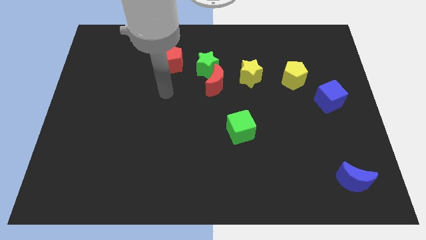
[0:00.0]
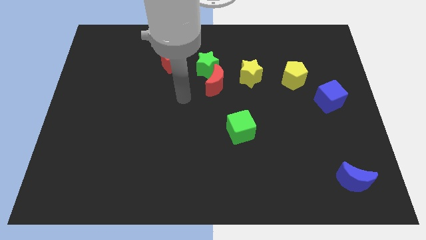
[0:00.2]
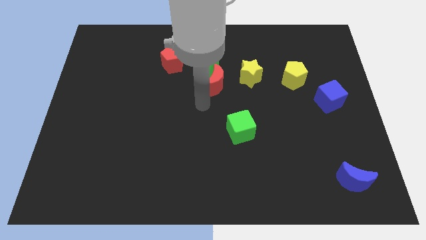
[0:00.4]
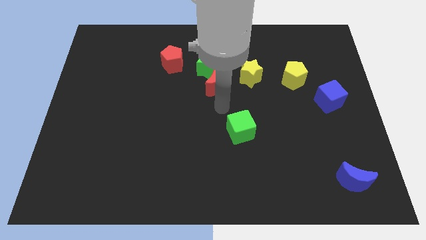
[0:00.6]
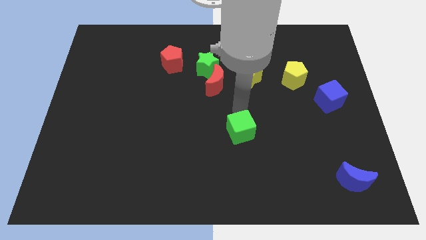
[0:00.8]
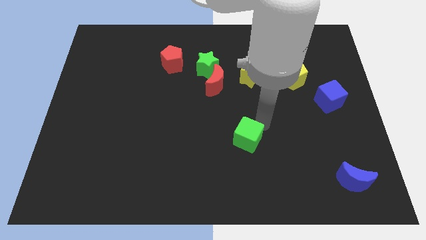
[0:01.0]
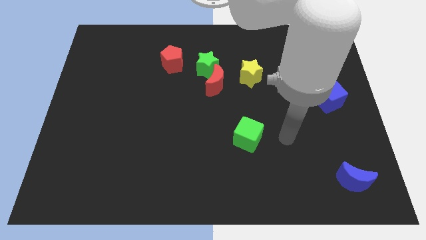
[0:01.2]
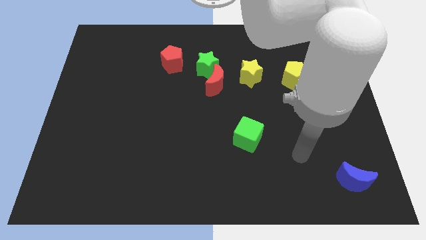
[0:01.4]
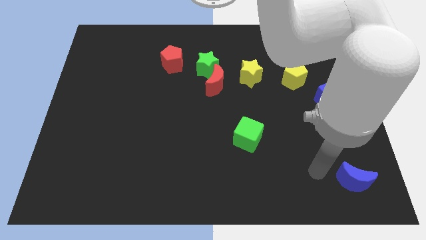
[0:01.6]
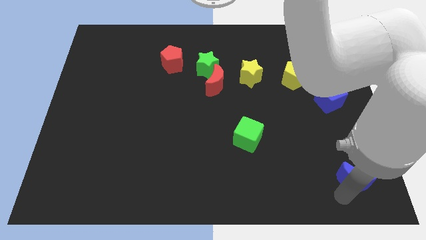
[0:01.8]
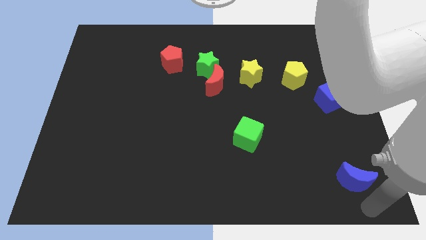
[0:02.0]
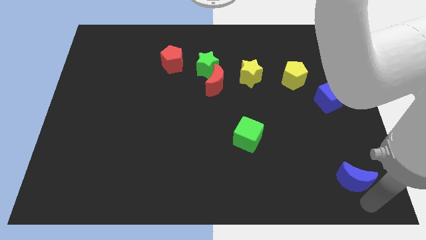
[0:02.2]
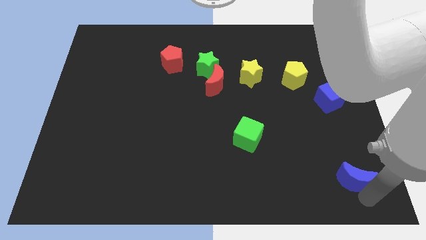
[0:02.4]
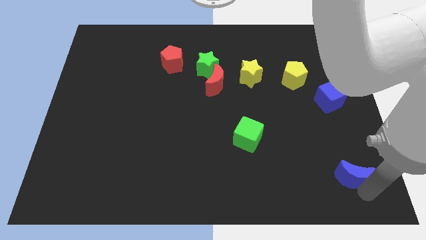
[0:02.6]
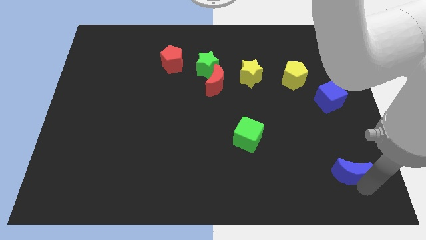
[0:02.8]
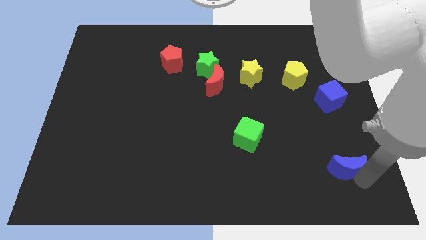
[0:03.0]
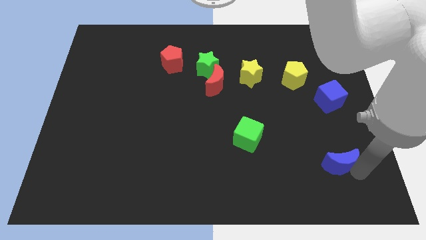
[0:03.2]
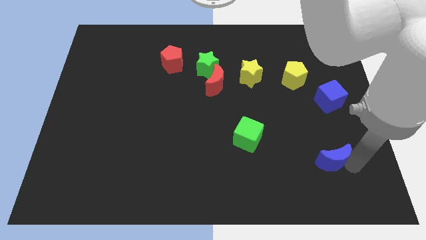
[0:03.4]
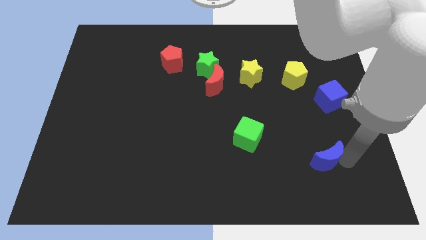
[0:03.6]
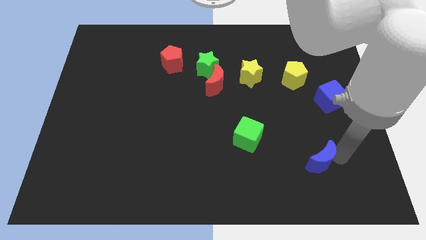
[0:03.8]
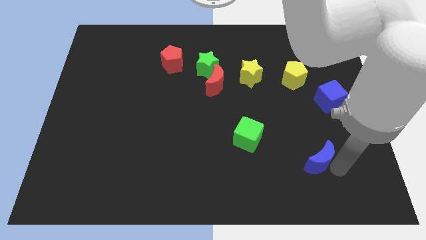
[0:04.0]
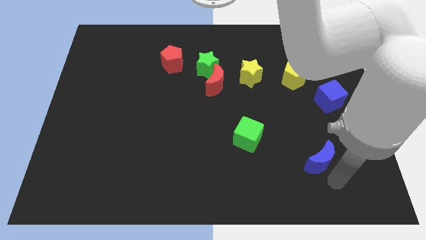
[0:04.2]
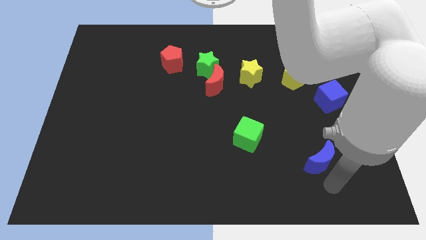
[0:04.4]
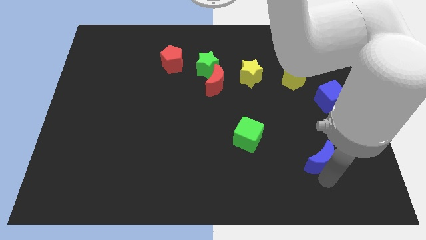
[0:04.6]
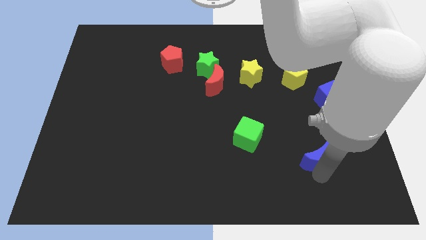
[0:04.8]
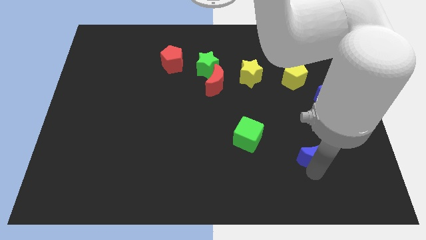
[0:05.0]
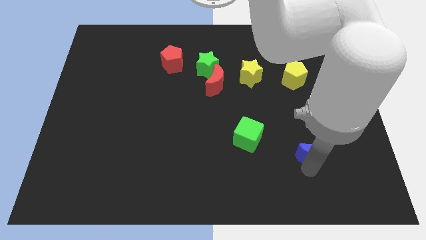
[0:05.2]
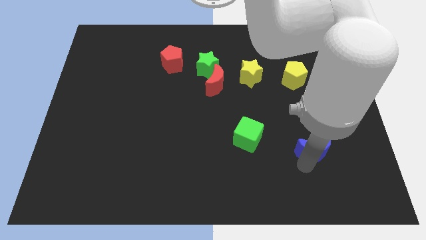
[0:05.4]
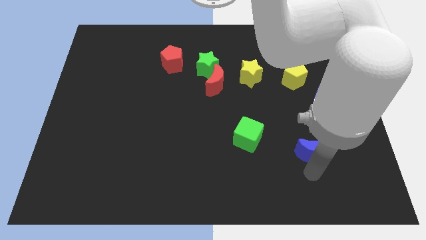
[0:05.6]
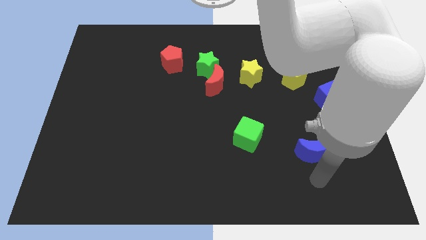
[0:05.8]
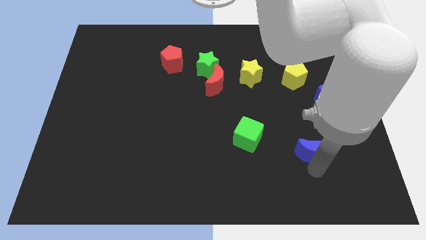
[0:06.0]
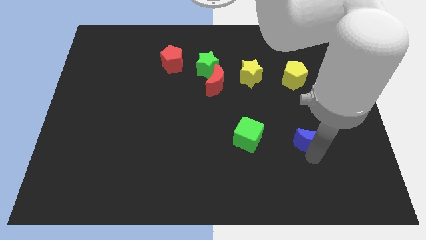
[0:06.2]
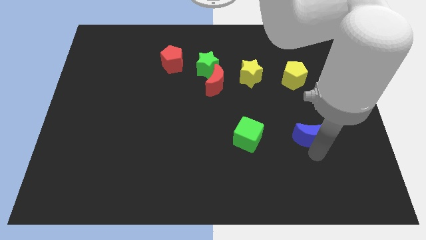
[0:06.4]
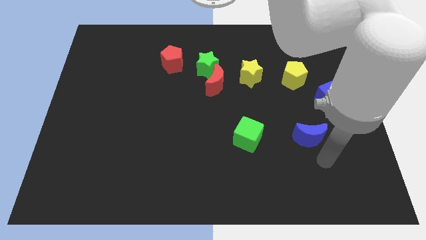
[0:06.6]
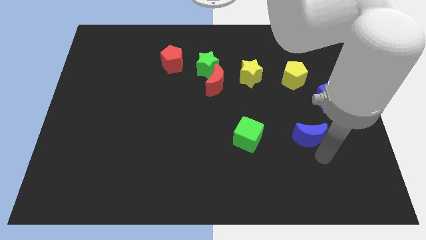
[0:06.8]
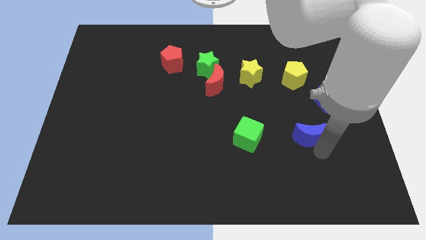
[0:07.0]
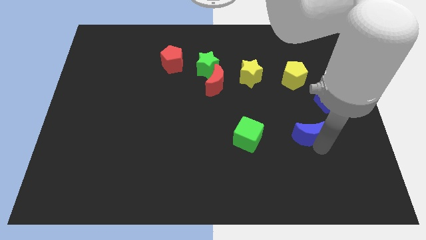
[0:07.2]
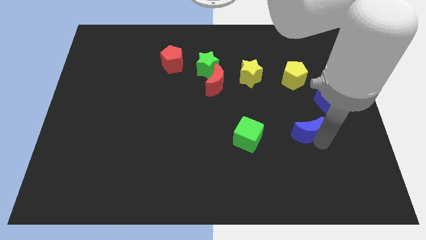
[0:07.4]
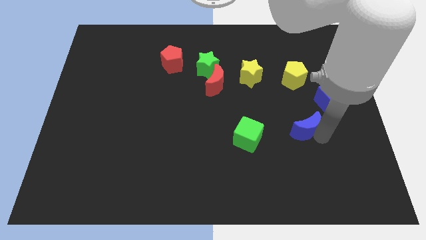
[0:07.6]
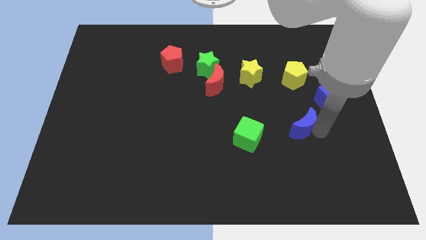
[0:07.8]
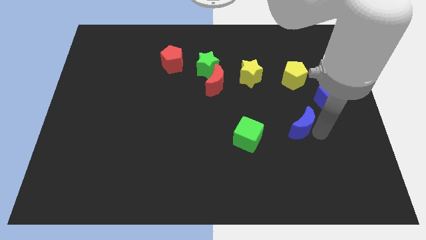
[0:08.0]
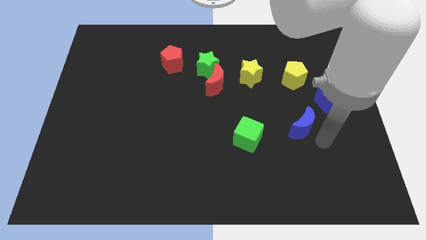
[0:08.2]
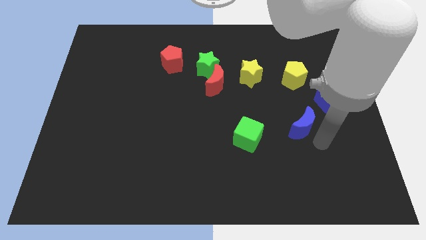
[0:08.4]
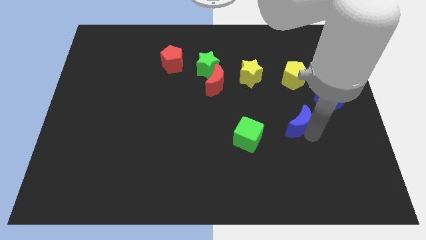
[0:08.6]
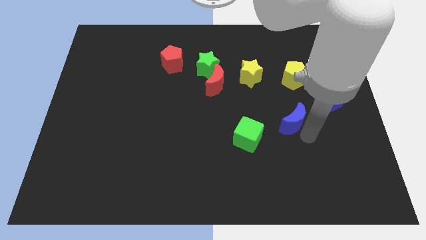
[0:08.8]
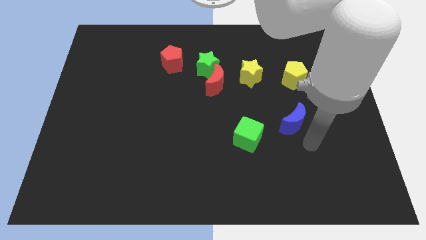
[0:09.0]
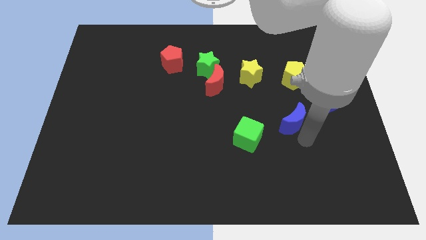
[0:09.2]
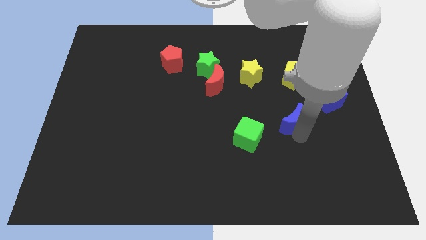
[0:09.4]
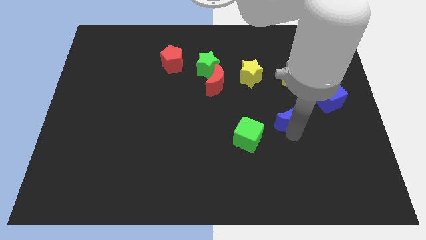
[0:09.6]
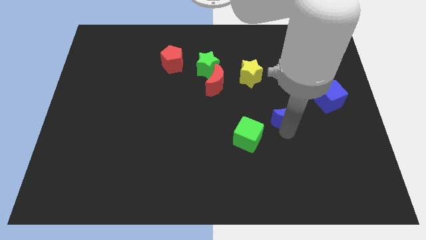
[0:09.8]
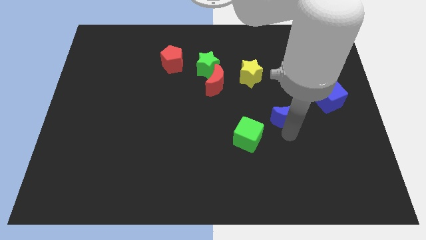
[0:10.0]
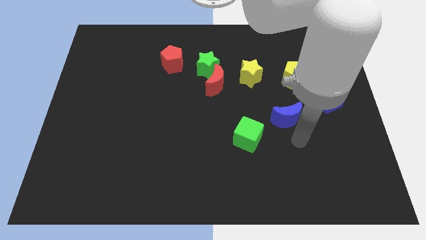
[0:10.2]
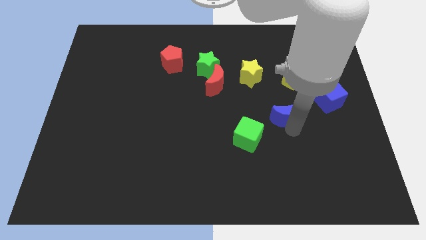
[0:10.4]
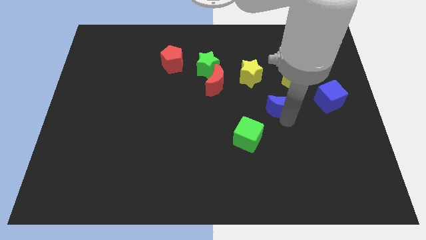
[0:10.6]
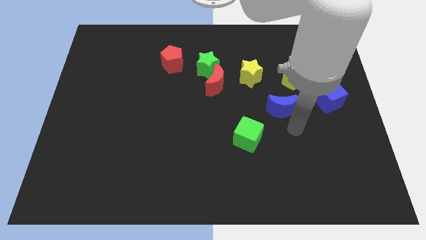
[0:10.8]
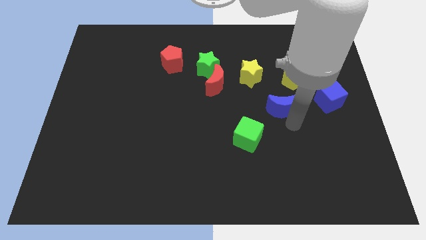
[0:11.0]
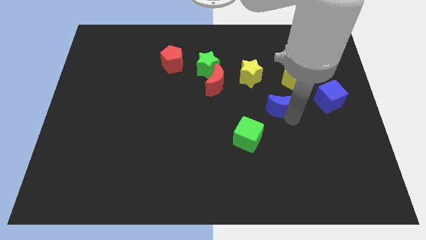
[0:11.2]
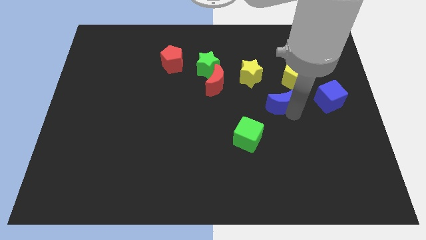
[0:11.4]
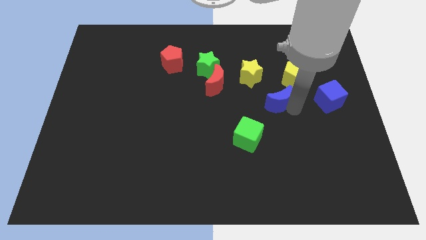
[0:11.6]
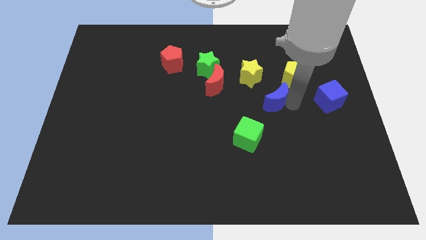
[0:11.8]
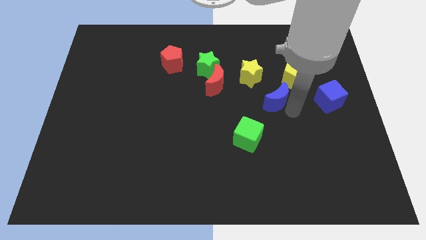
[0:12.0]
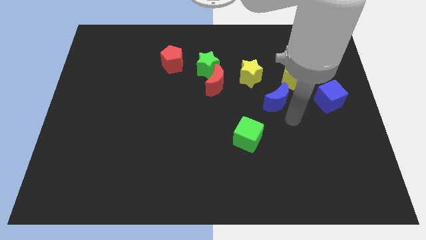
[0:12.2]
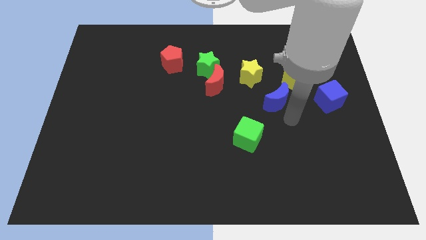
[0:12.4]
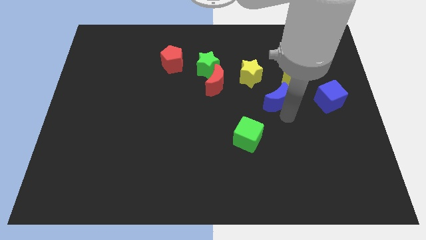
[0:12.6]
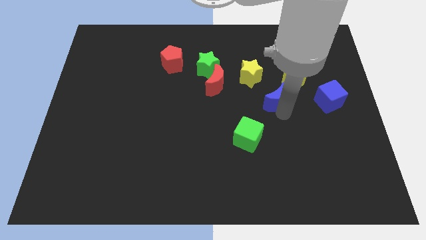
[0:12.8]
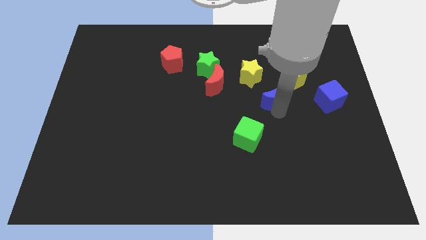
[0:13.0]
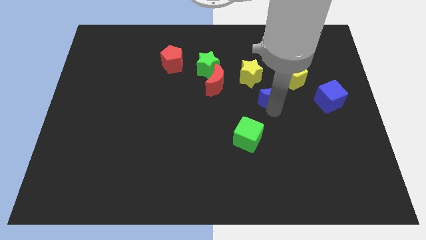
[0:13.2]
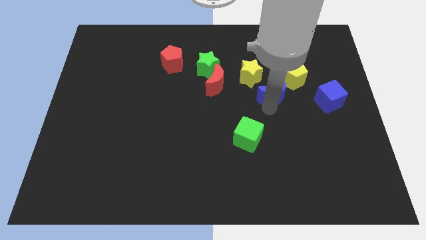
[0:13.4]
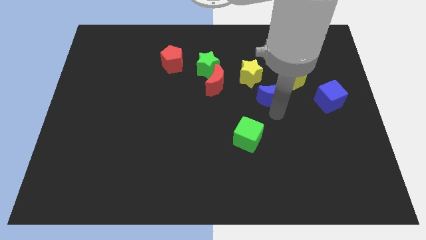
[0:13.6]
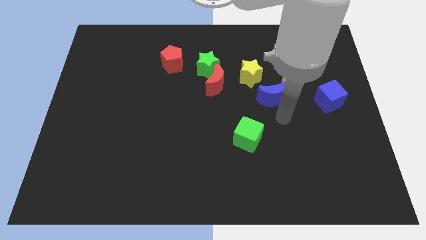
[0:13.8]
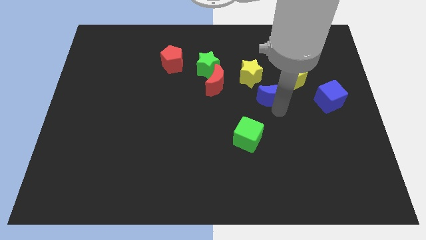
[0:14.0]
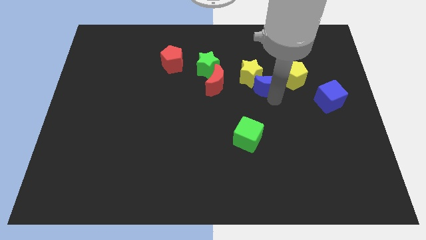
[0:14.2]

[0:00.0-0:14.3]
push the blue moon close to the yellow star
